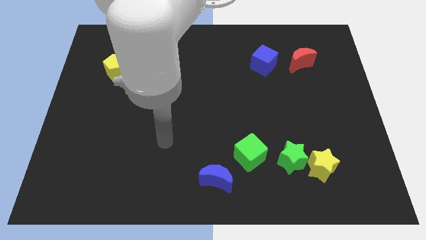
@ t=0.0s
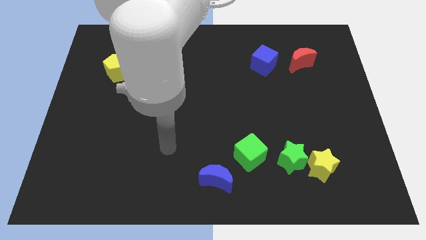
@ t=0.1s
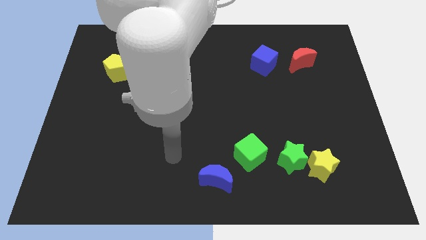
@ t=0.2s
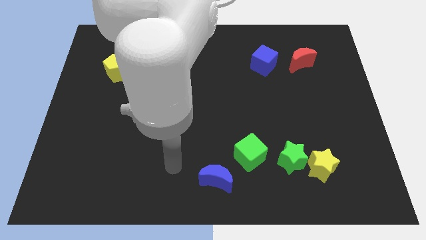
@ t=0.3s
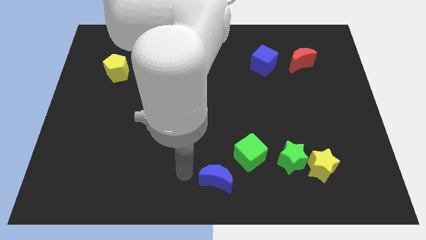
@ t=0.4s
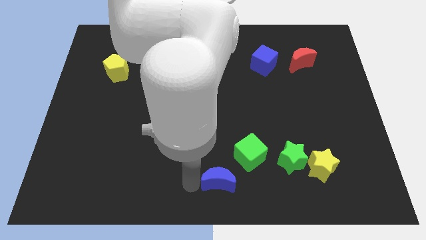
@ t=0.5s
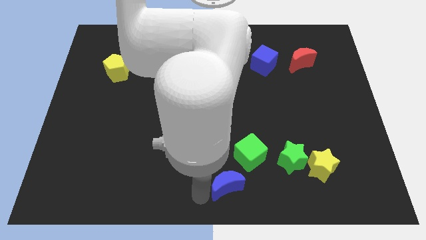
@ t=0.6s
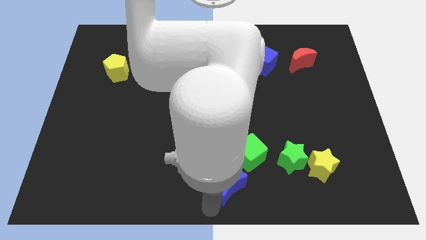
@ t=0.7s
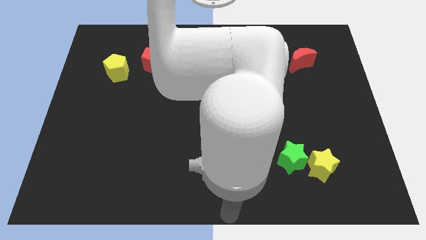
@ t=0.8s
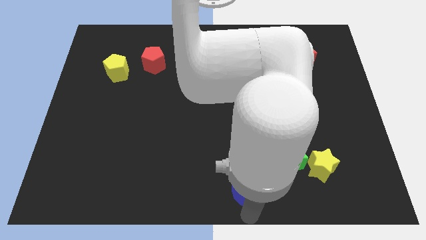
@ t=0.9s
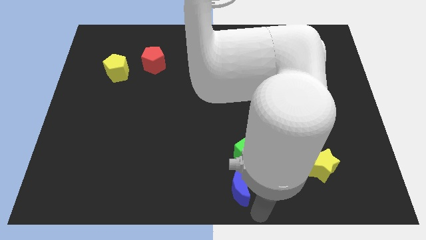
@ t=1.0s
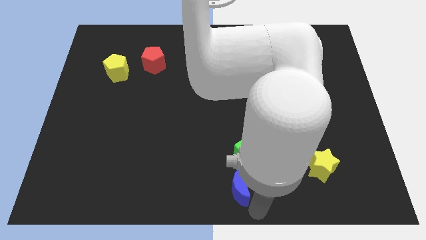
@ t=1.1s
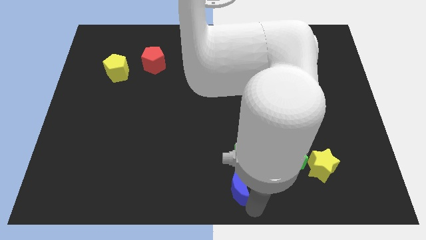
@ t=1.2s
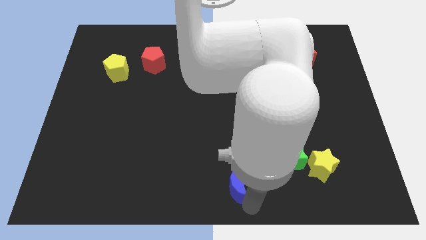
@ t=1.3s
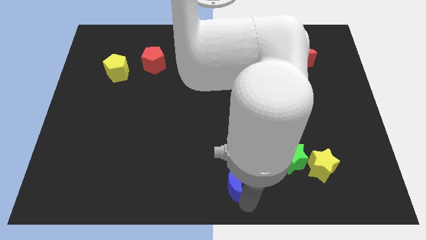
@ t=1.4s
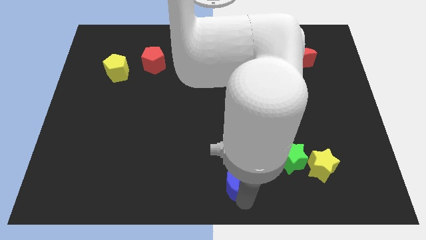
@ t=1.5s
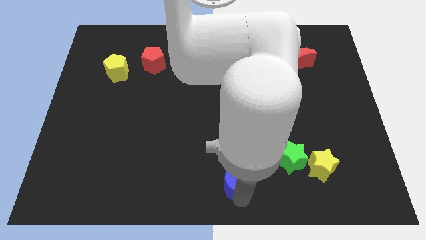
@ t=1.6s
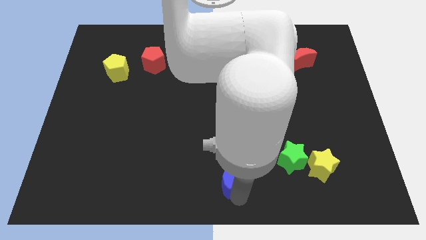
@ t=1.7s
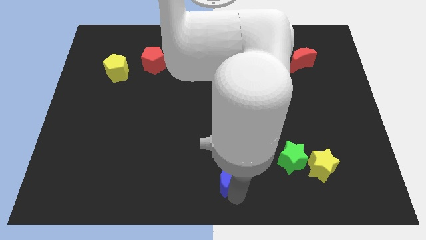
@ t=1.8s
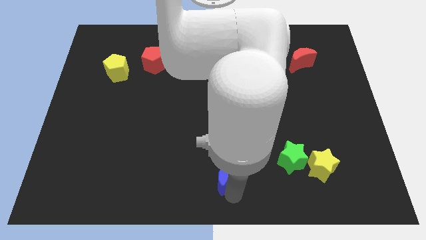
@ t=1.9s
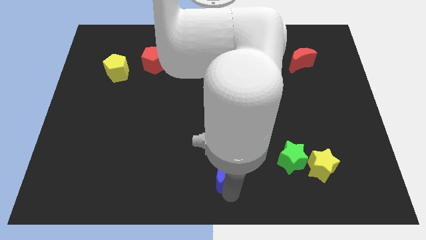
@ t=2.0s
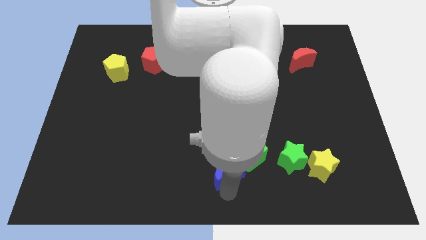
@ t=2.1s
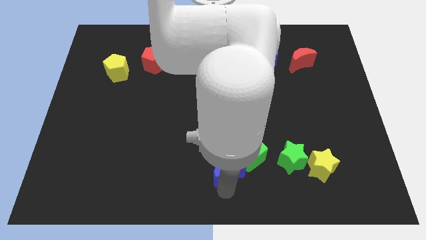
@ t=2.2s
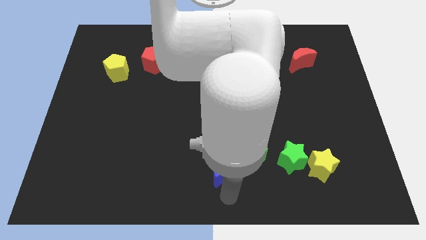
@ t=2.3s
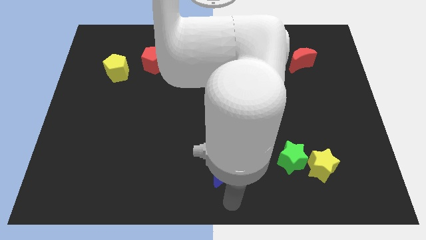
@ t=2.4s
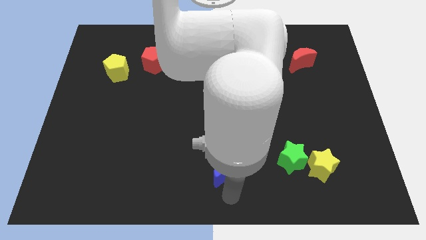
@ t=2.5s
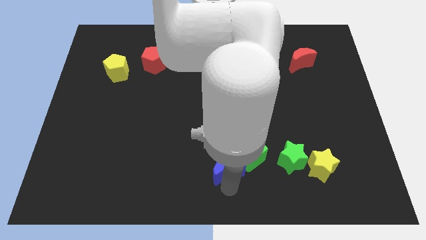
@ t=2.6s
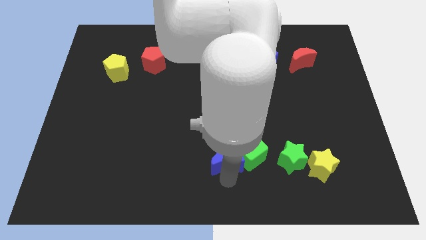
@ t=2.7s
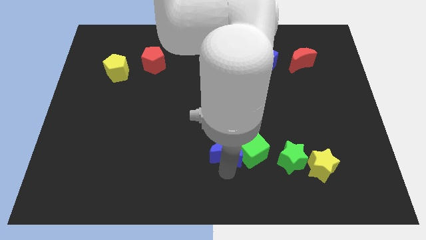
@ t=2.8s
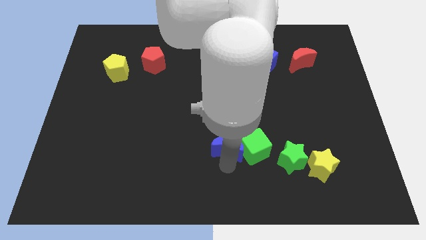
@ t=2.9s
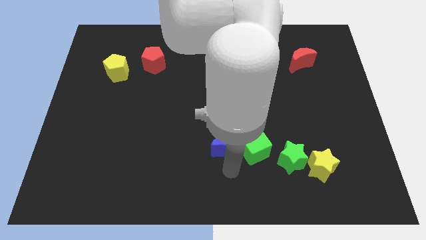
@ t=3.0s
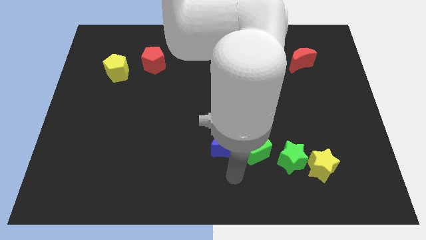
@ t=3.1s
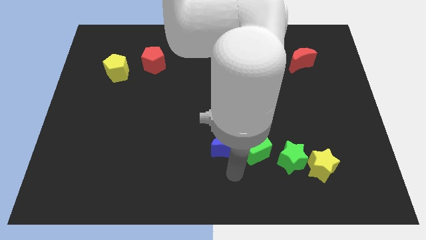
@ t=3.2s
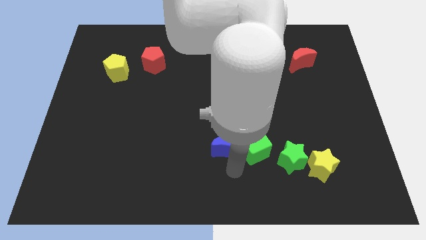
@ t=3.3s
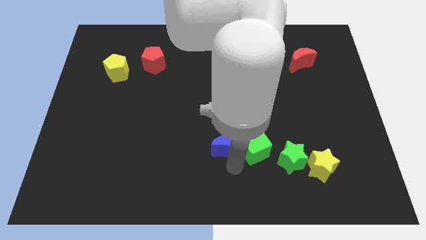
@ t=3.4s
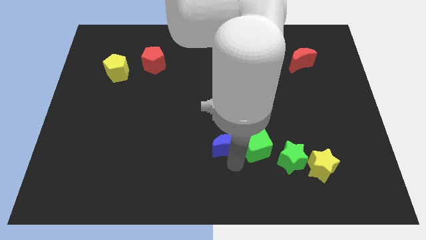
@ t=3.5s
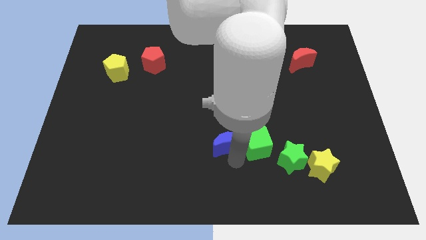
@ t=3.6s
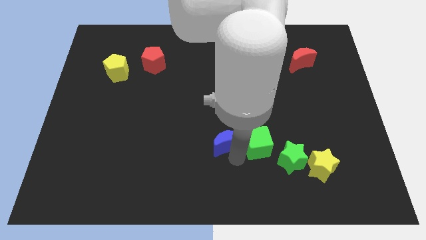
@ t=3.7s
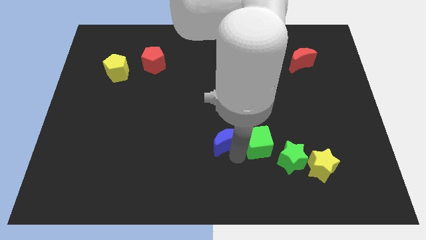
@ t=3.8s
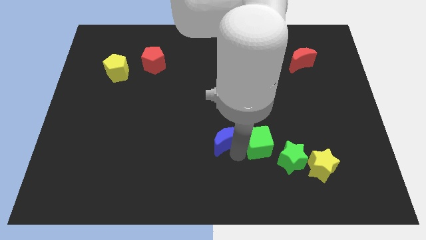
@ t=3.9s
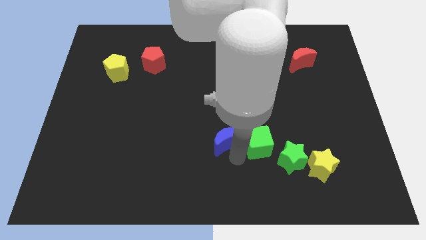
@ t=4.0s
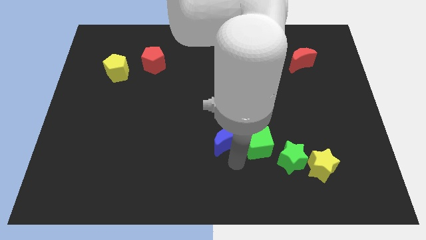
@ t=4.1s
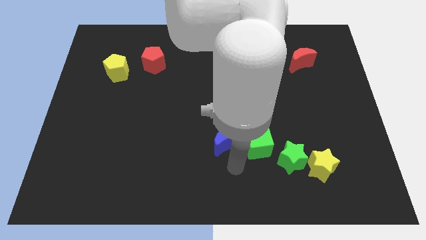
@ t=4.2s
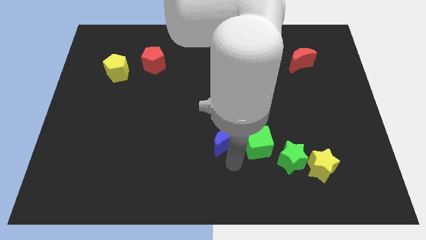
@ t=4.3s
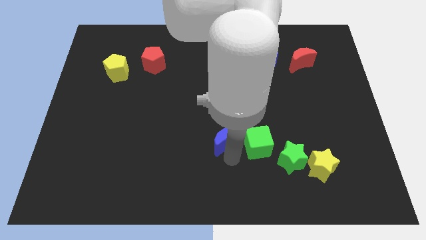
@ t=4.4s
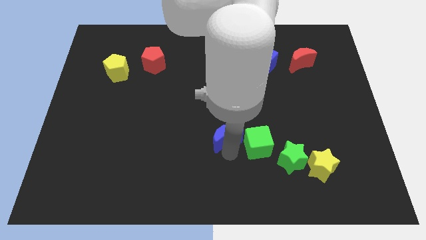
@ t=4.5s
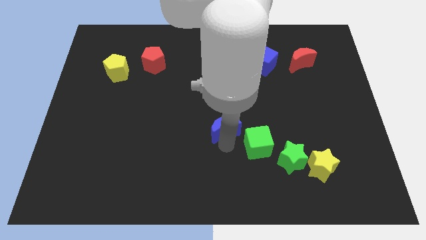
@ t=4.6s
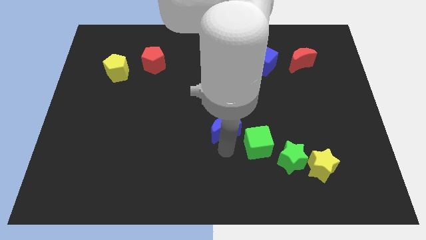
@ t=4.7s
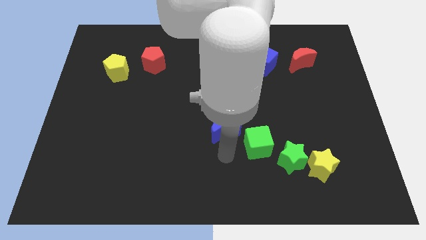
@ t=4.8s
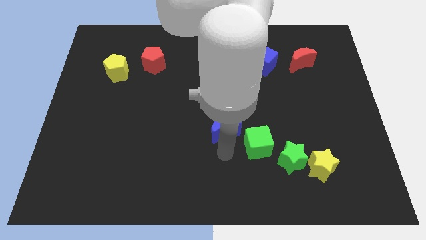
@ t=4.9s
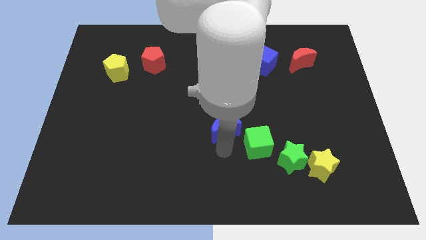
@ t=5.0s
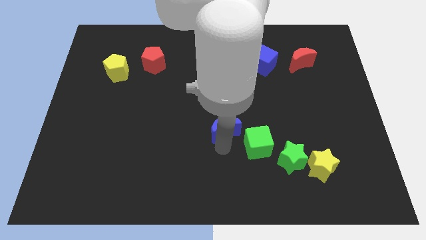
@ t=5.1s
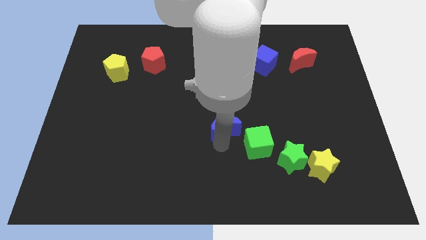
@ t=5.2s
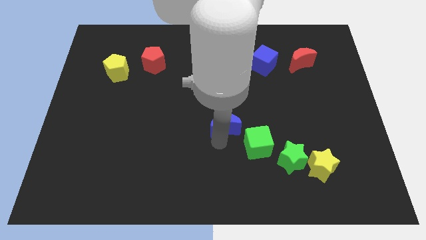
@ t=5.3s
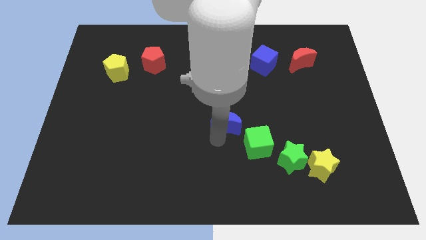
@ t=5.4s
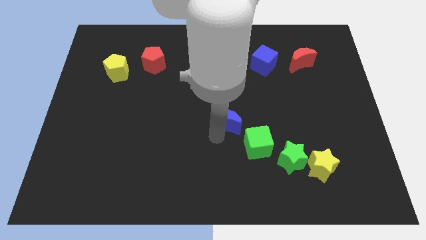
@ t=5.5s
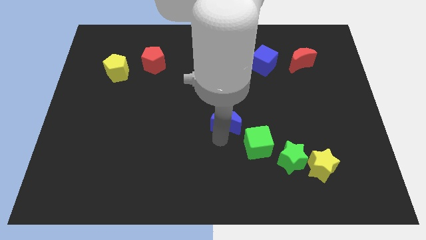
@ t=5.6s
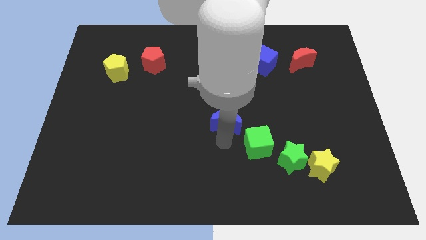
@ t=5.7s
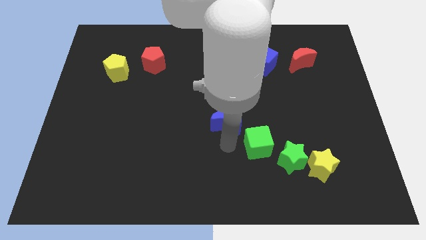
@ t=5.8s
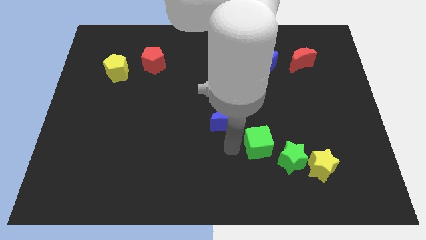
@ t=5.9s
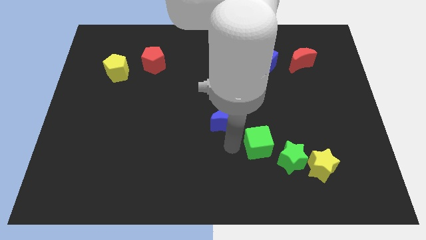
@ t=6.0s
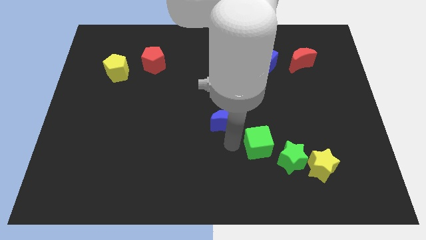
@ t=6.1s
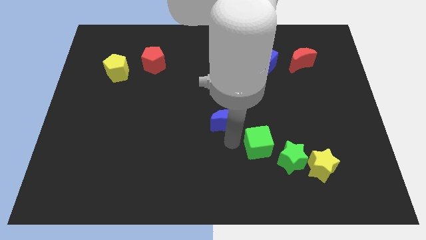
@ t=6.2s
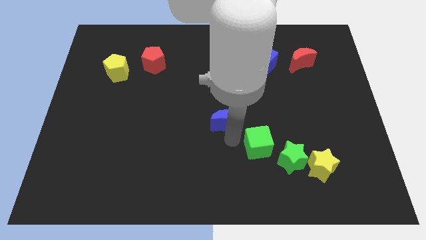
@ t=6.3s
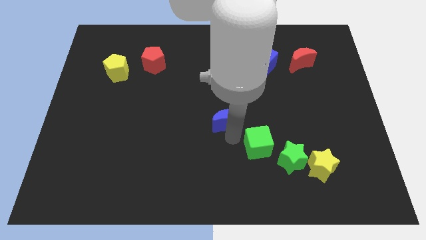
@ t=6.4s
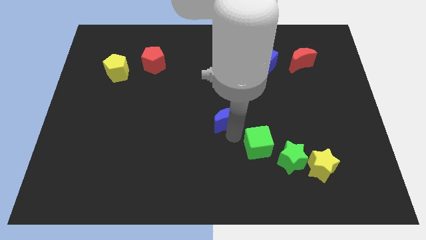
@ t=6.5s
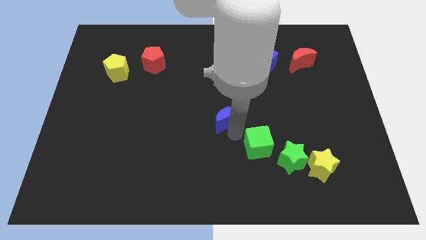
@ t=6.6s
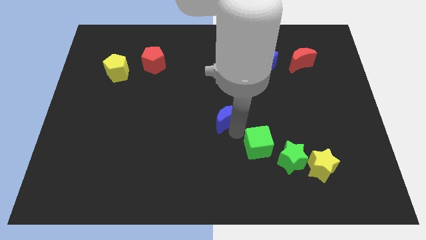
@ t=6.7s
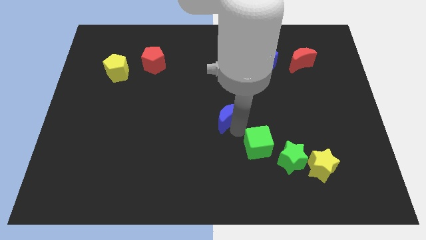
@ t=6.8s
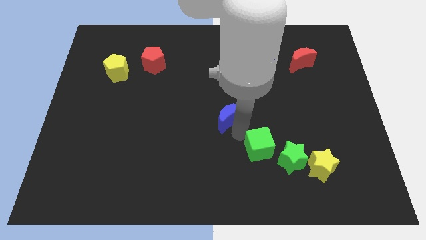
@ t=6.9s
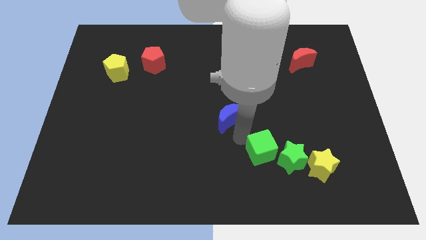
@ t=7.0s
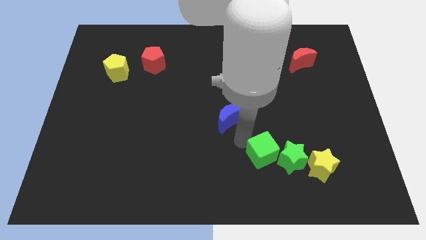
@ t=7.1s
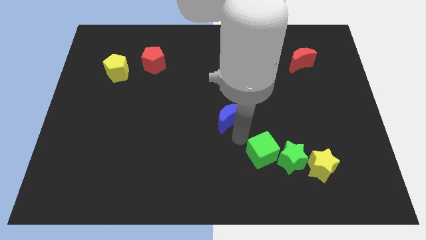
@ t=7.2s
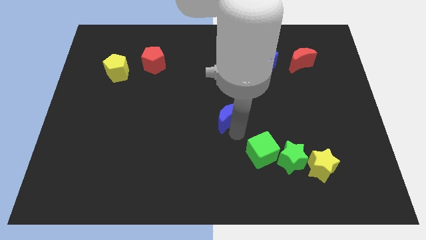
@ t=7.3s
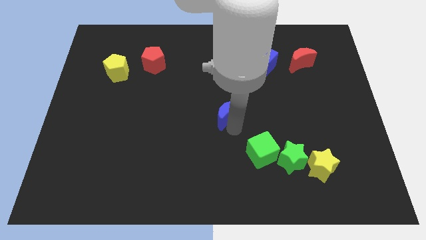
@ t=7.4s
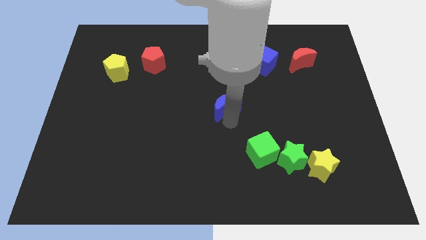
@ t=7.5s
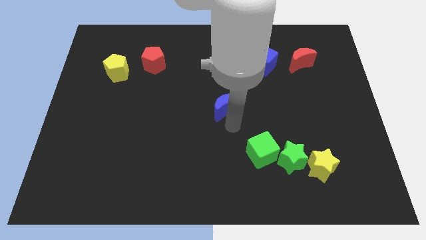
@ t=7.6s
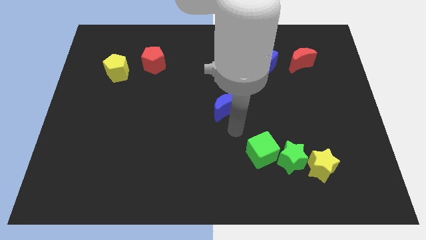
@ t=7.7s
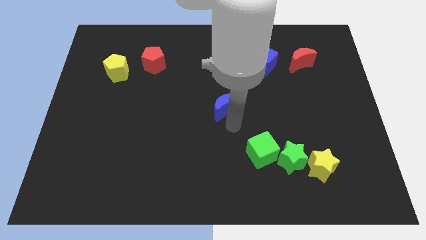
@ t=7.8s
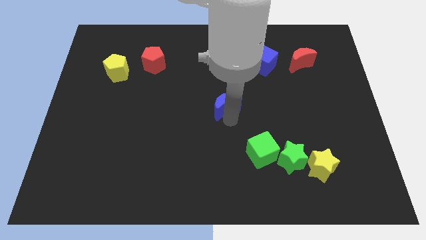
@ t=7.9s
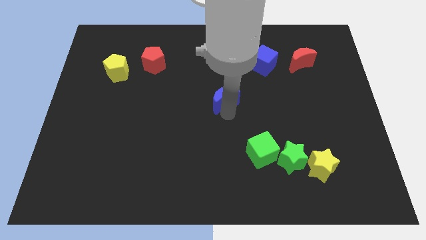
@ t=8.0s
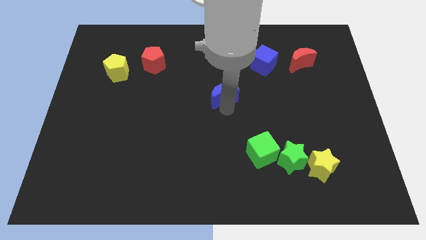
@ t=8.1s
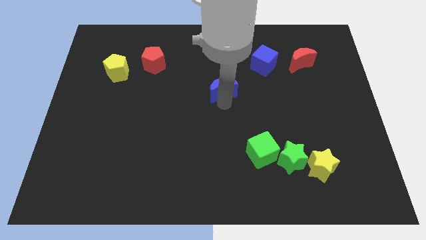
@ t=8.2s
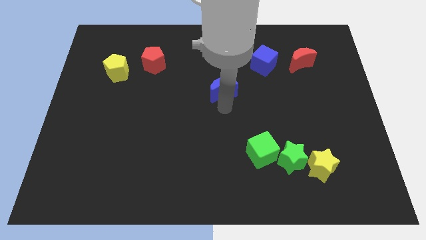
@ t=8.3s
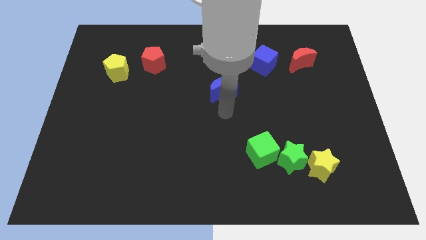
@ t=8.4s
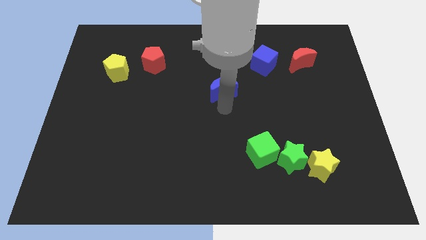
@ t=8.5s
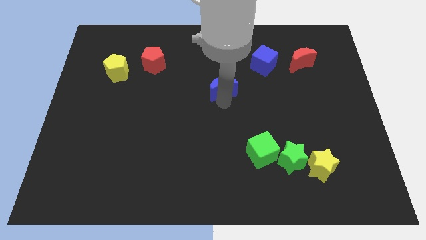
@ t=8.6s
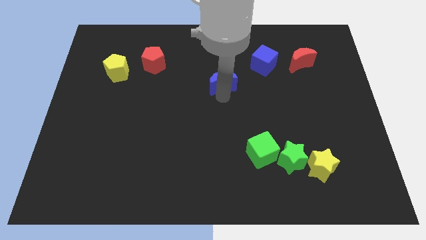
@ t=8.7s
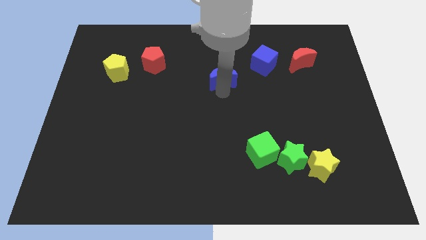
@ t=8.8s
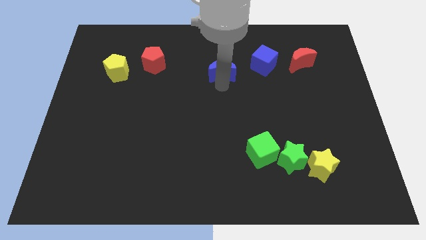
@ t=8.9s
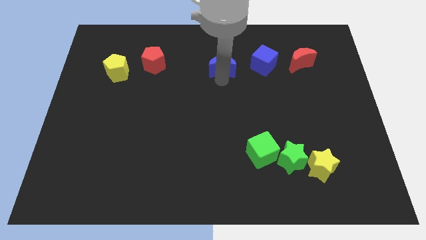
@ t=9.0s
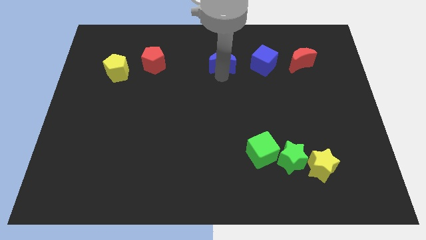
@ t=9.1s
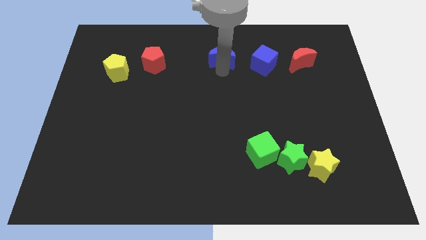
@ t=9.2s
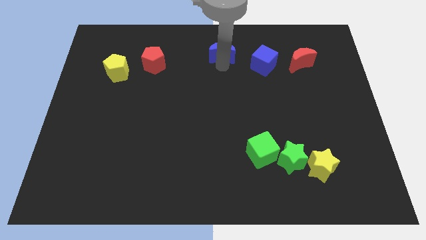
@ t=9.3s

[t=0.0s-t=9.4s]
push the blue moon to the top
